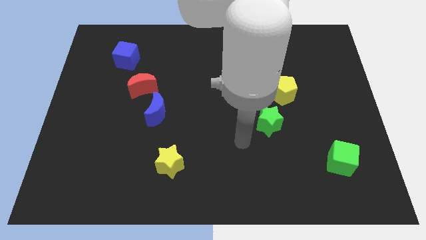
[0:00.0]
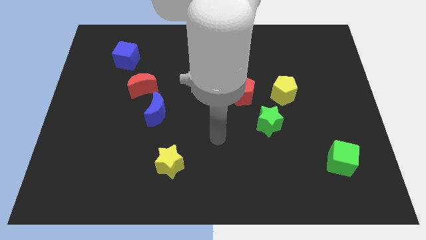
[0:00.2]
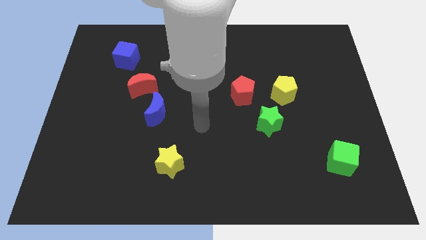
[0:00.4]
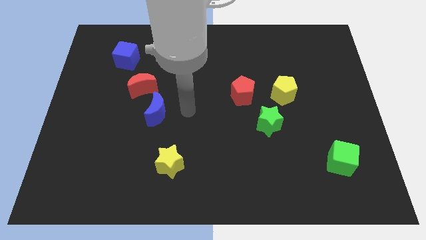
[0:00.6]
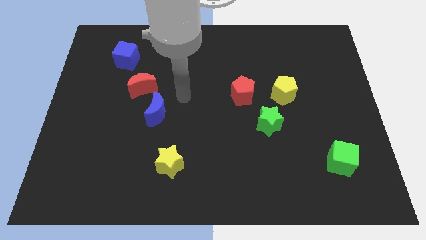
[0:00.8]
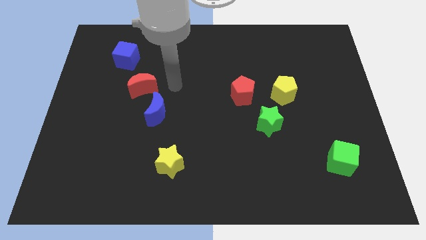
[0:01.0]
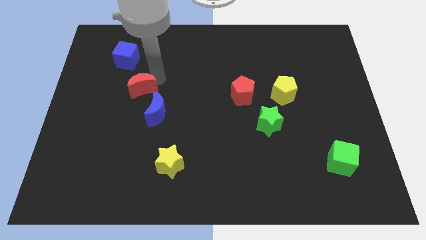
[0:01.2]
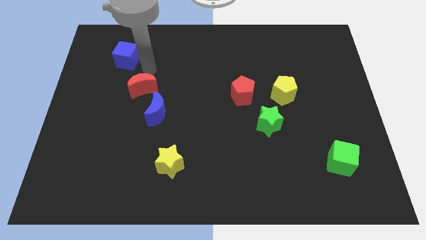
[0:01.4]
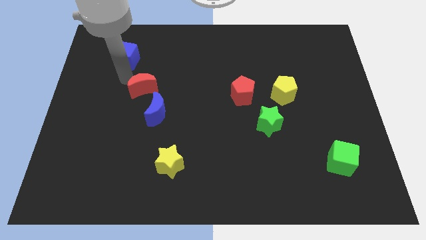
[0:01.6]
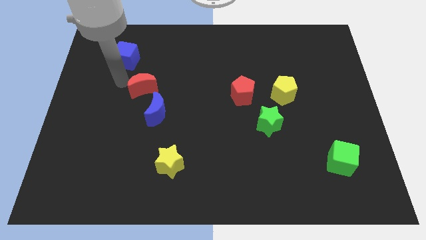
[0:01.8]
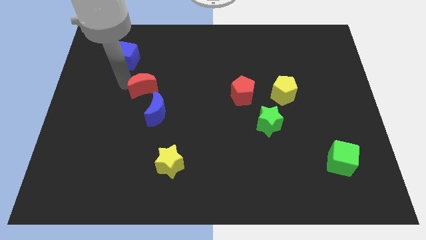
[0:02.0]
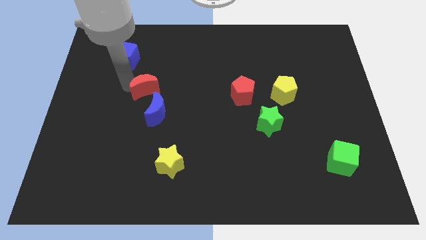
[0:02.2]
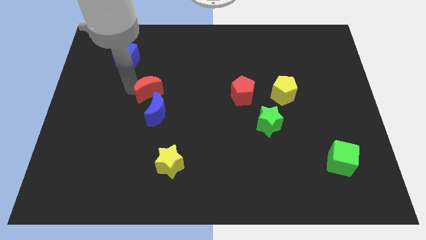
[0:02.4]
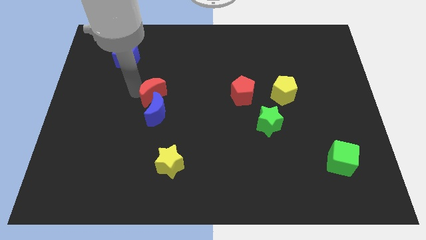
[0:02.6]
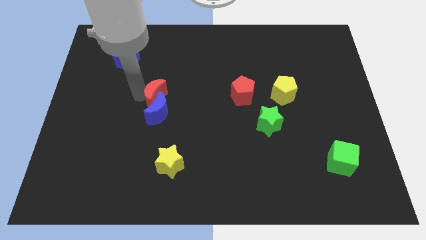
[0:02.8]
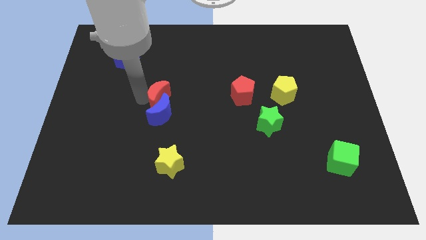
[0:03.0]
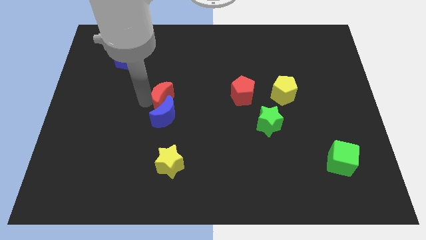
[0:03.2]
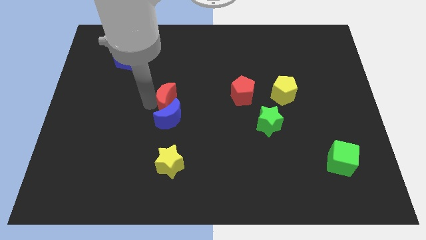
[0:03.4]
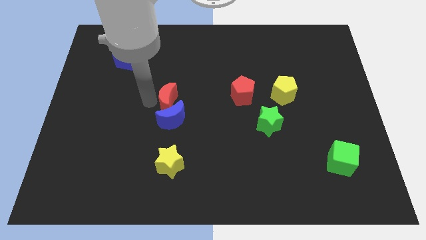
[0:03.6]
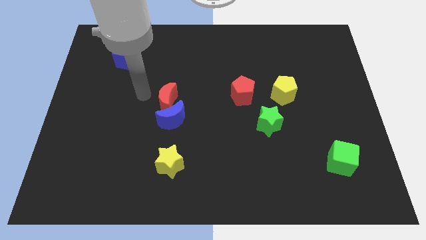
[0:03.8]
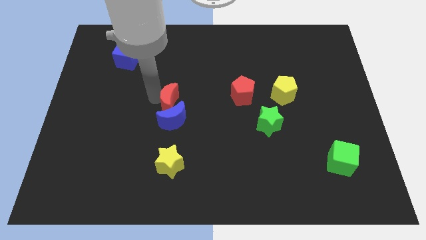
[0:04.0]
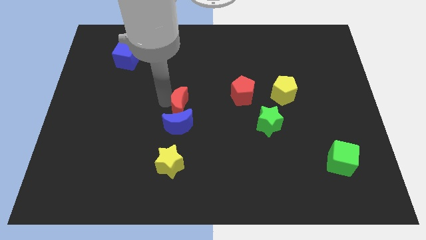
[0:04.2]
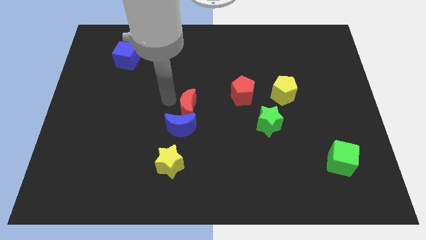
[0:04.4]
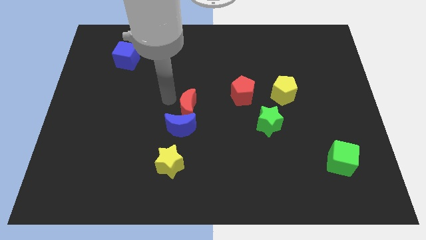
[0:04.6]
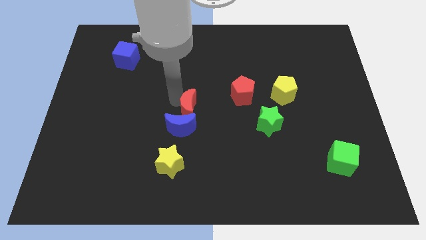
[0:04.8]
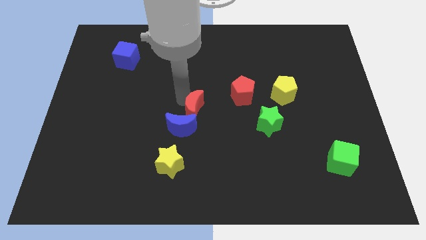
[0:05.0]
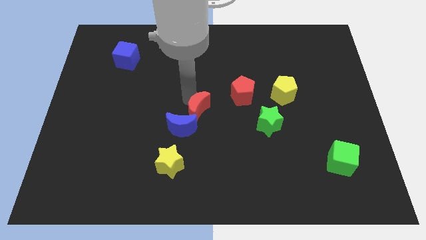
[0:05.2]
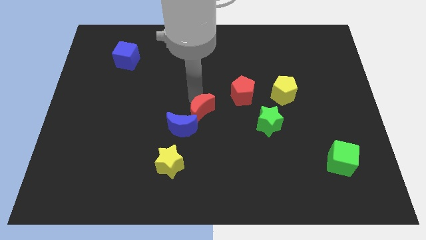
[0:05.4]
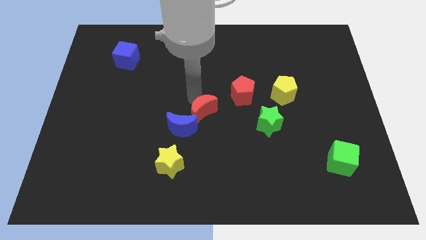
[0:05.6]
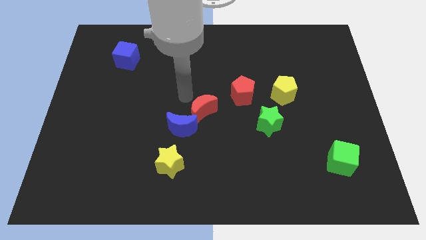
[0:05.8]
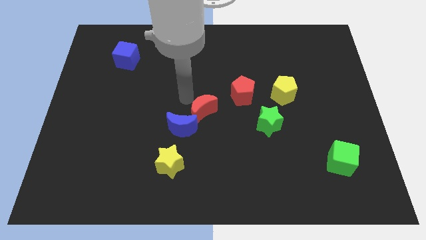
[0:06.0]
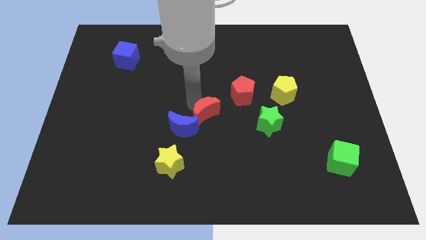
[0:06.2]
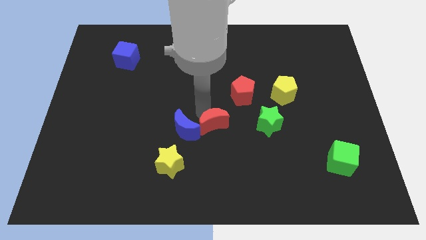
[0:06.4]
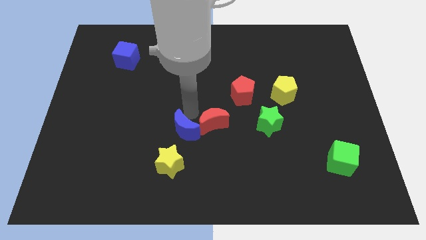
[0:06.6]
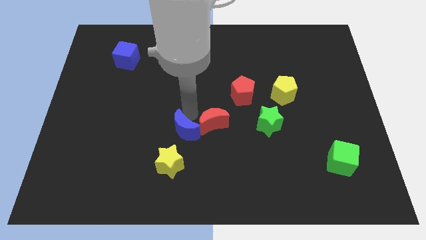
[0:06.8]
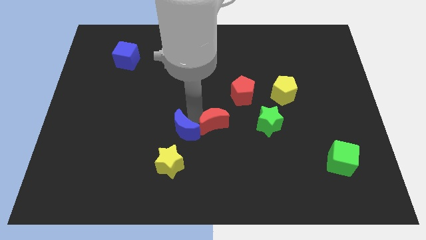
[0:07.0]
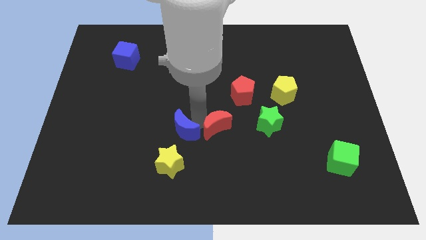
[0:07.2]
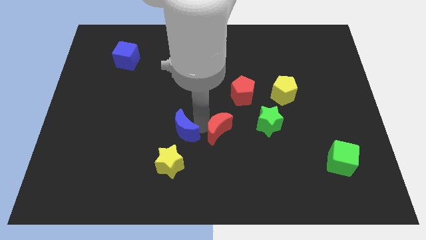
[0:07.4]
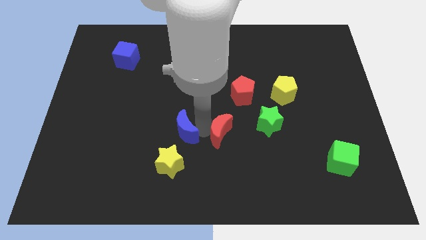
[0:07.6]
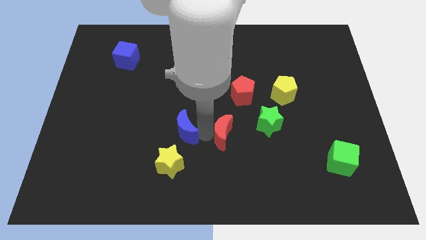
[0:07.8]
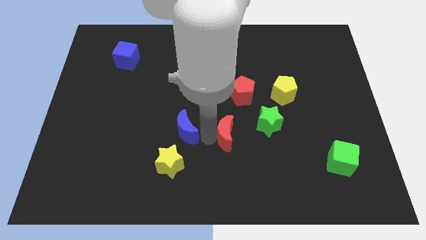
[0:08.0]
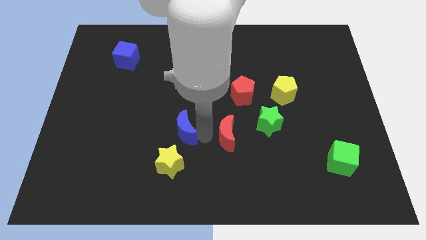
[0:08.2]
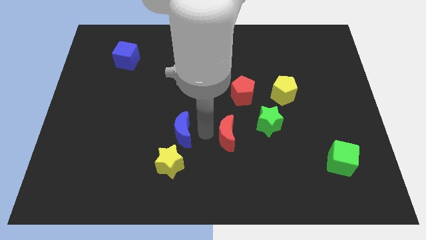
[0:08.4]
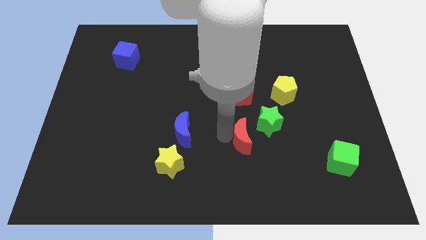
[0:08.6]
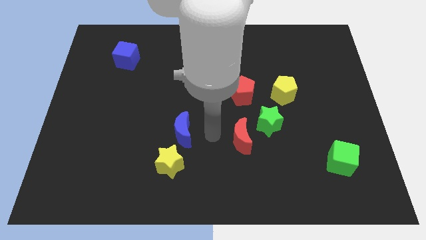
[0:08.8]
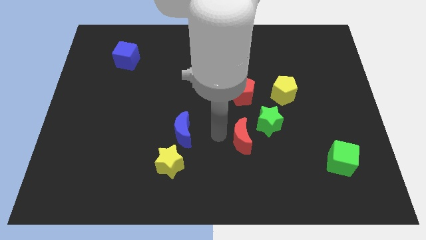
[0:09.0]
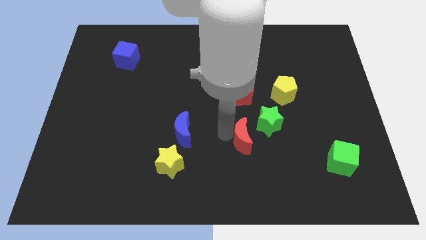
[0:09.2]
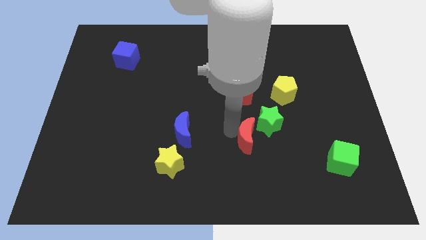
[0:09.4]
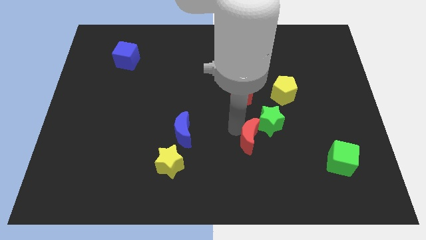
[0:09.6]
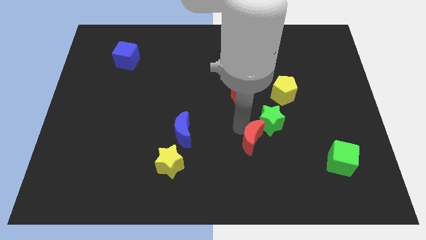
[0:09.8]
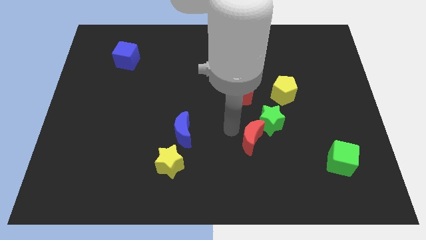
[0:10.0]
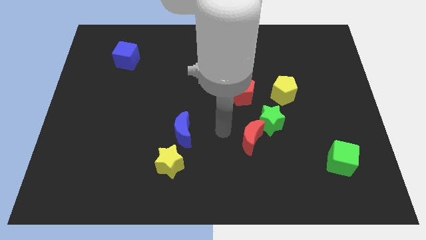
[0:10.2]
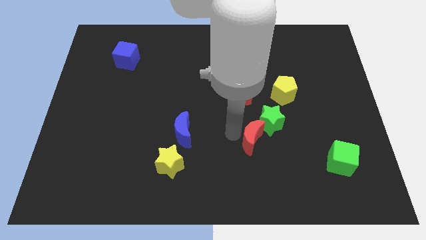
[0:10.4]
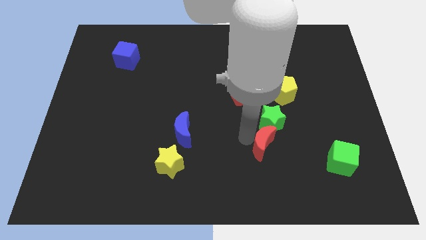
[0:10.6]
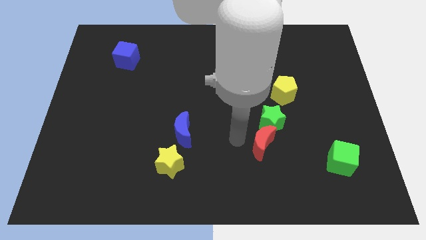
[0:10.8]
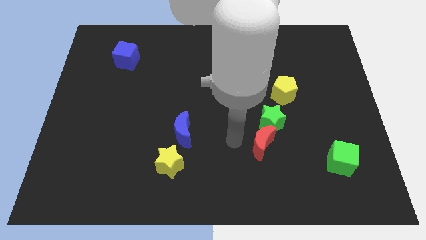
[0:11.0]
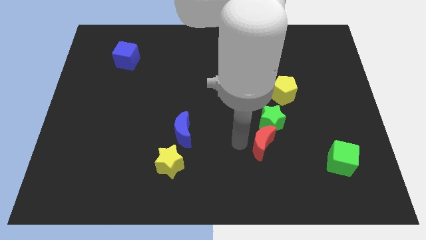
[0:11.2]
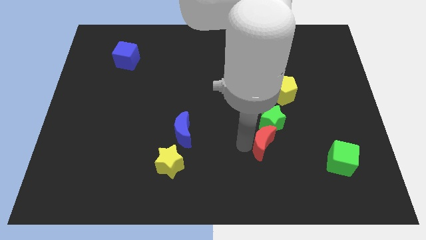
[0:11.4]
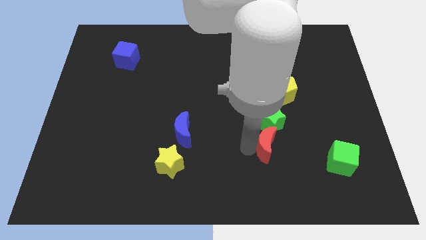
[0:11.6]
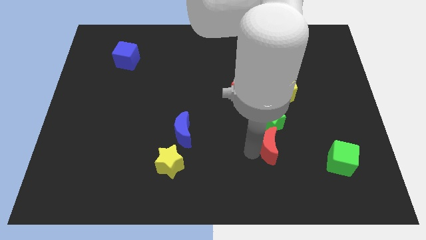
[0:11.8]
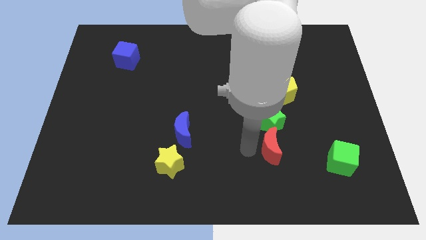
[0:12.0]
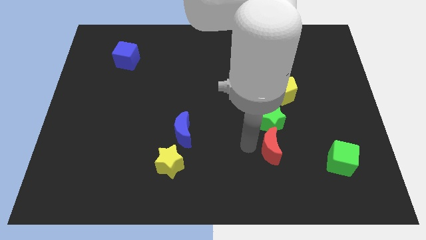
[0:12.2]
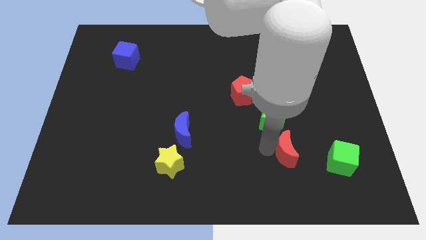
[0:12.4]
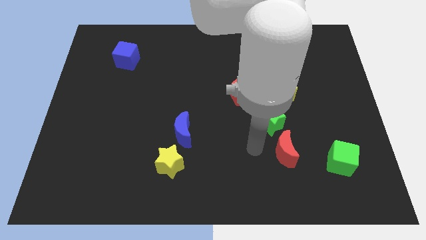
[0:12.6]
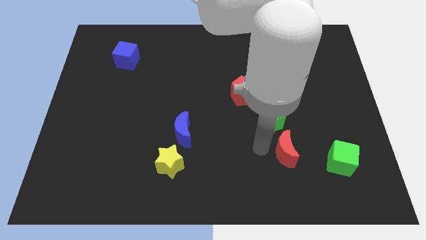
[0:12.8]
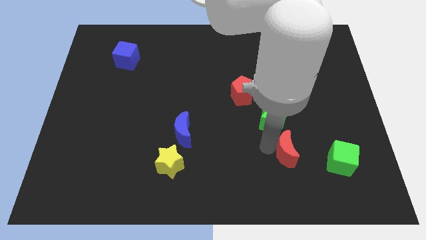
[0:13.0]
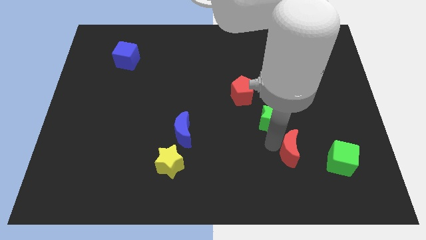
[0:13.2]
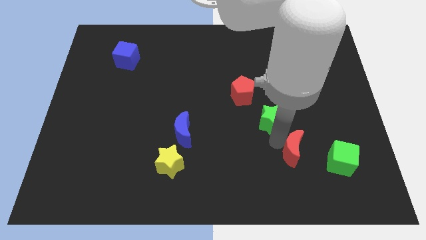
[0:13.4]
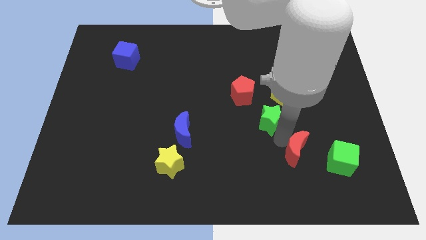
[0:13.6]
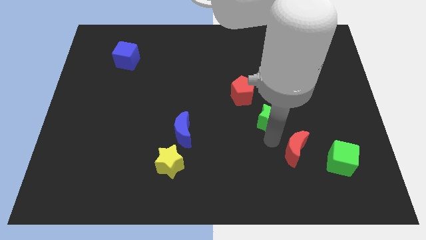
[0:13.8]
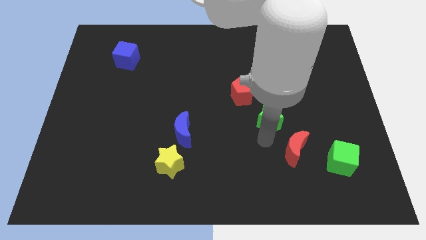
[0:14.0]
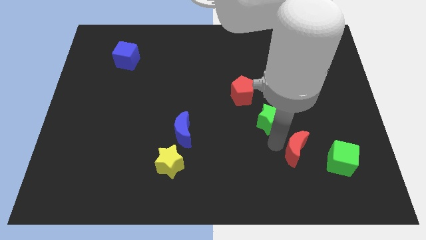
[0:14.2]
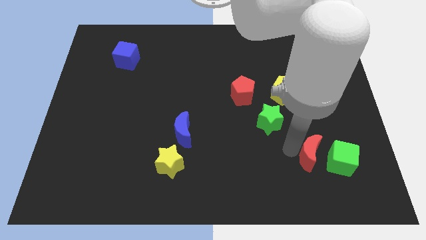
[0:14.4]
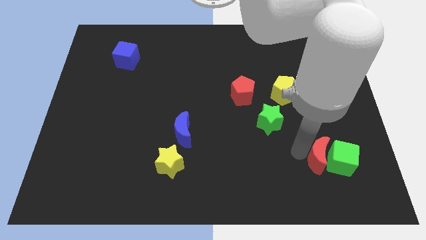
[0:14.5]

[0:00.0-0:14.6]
move the red moon towards the green cube
